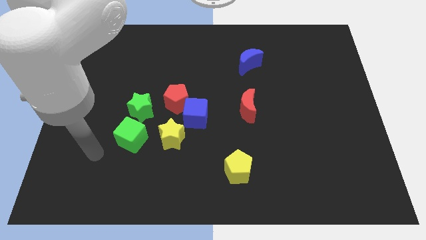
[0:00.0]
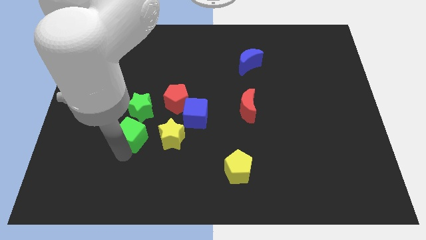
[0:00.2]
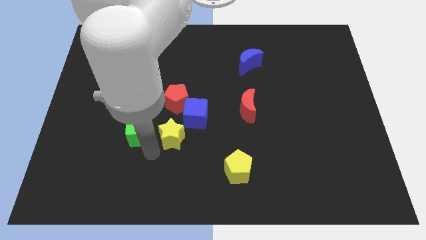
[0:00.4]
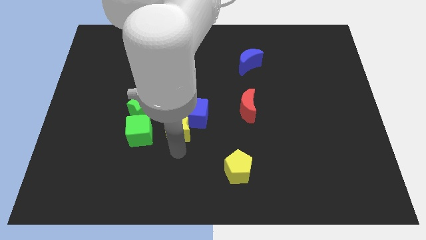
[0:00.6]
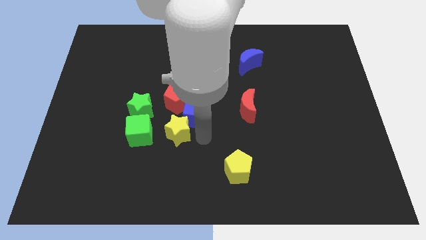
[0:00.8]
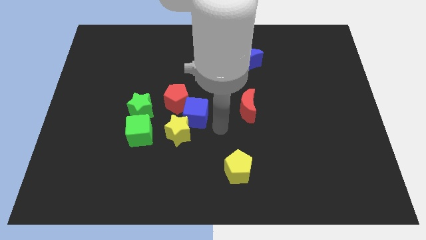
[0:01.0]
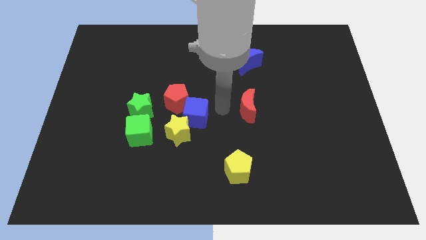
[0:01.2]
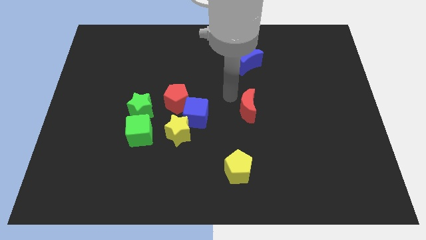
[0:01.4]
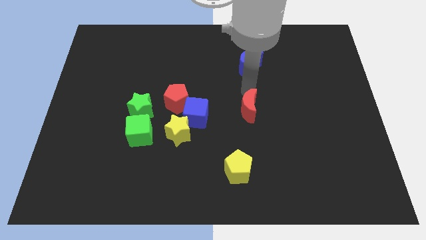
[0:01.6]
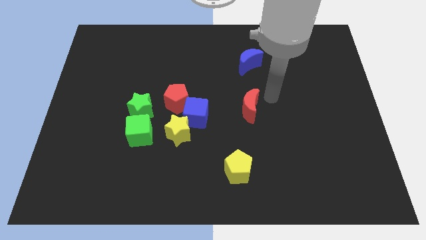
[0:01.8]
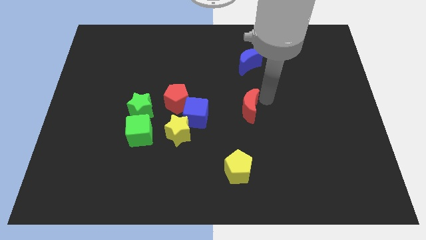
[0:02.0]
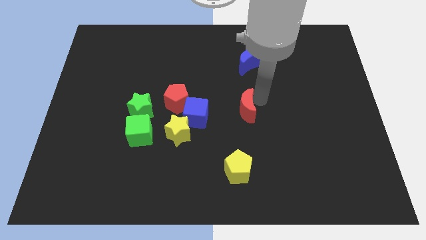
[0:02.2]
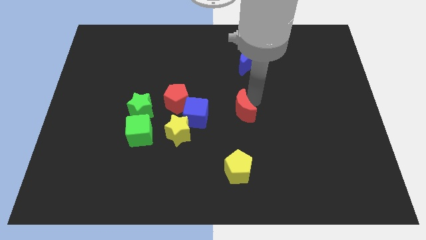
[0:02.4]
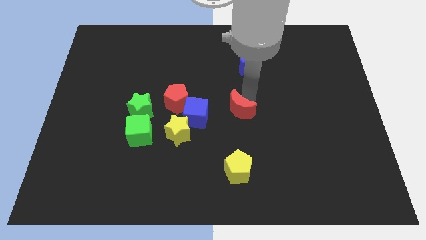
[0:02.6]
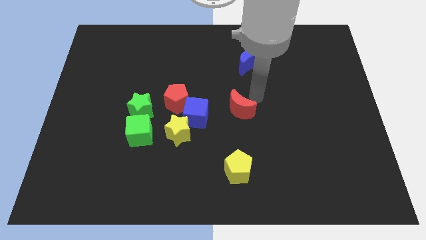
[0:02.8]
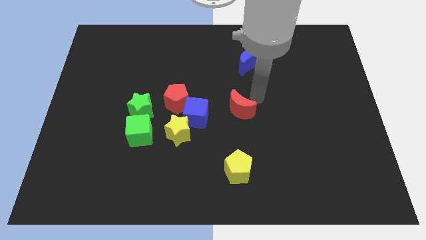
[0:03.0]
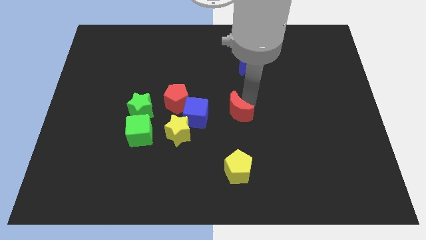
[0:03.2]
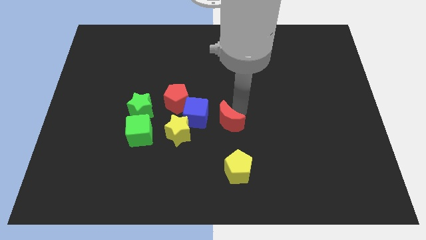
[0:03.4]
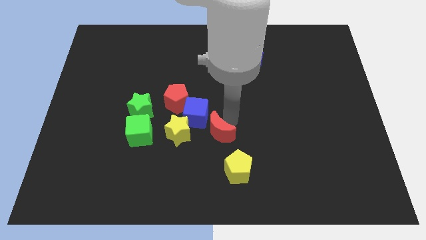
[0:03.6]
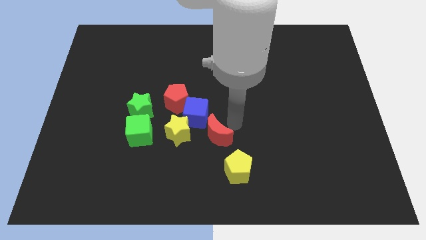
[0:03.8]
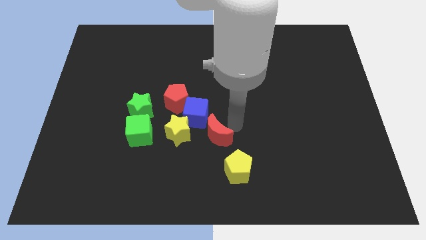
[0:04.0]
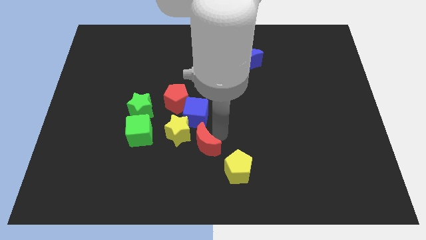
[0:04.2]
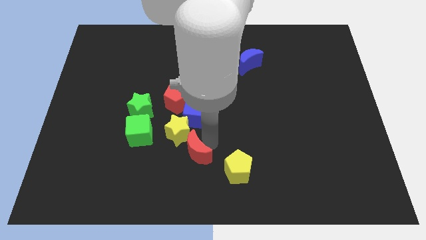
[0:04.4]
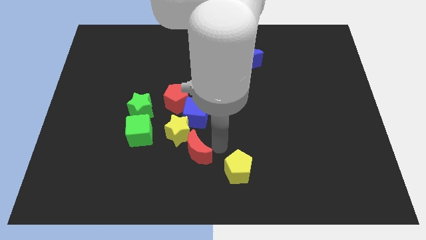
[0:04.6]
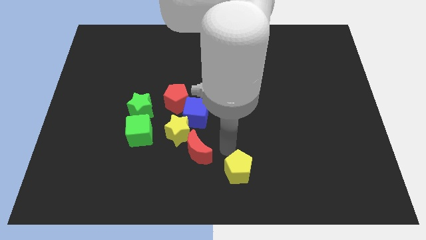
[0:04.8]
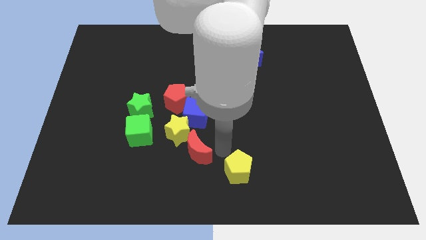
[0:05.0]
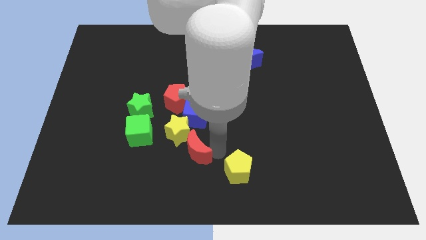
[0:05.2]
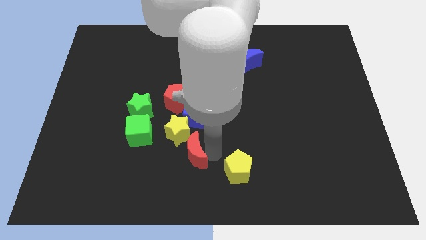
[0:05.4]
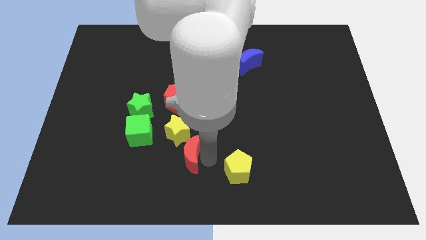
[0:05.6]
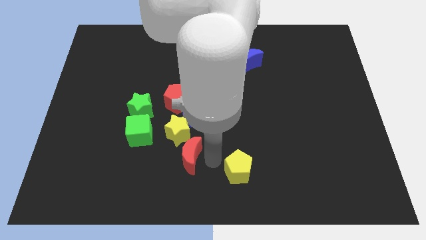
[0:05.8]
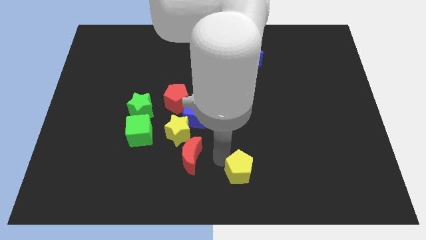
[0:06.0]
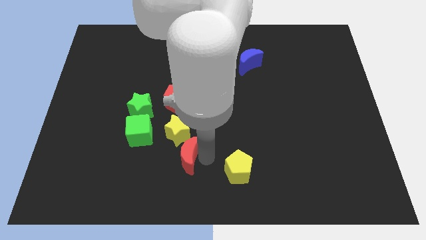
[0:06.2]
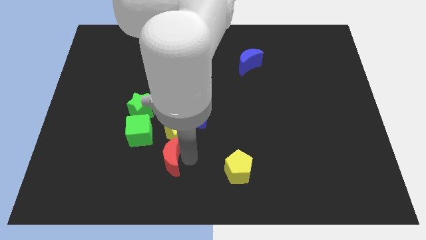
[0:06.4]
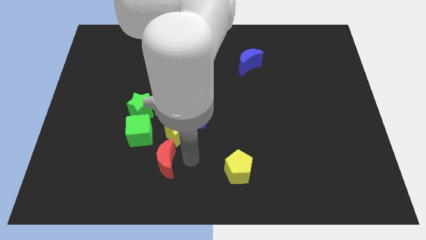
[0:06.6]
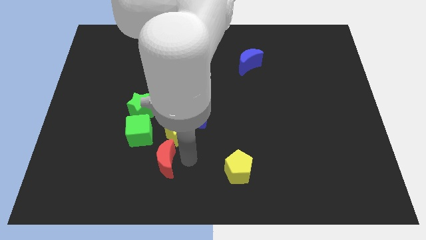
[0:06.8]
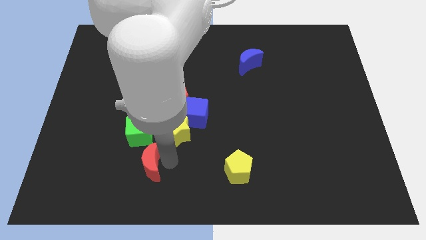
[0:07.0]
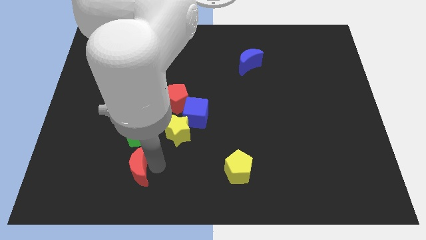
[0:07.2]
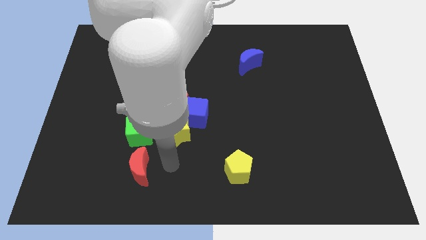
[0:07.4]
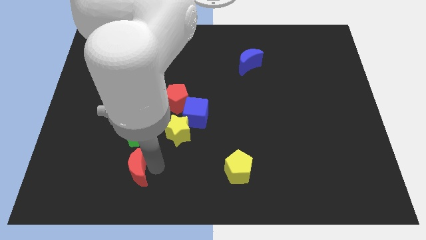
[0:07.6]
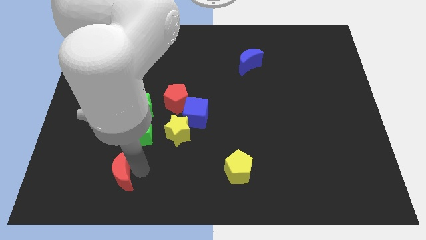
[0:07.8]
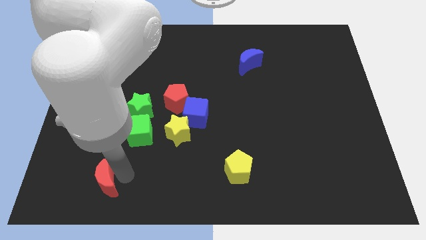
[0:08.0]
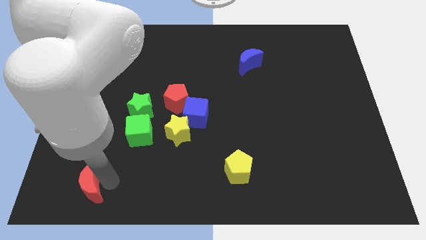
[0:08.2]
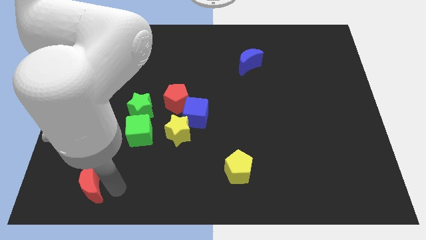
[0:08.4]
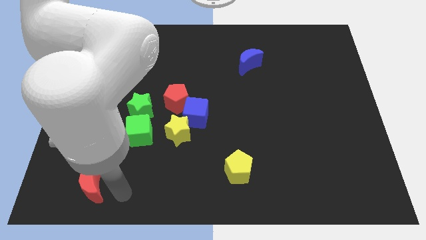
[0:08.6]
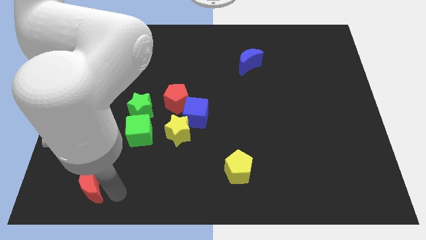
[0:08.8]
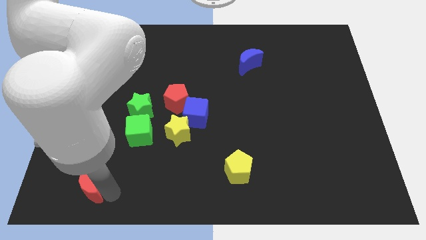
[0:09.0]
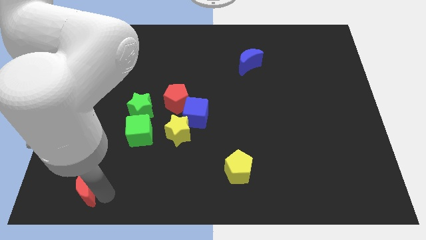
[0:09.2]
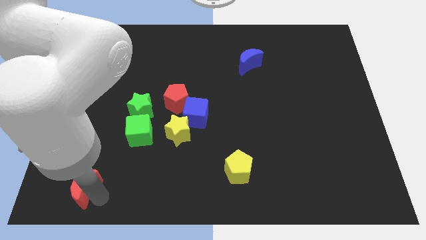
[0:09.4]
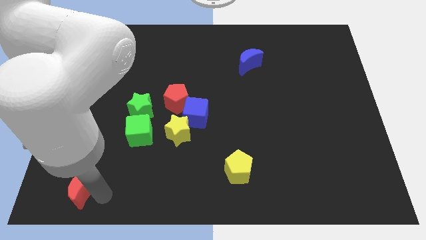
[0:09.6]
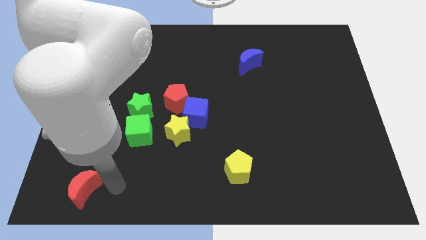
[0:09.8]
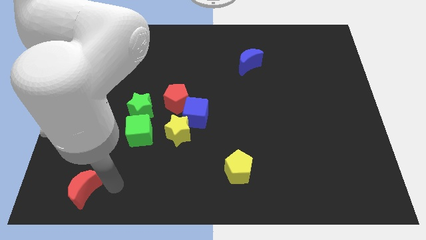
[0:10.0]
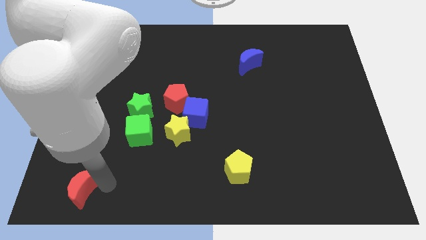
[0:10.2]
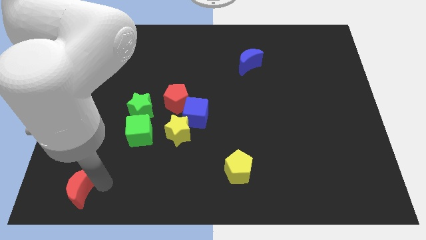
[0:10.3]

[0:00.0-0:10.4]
move the red moon to the bottom left

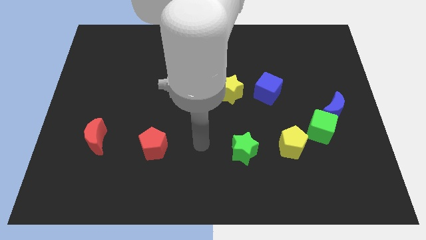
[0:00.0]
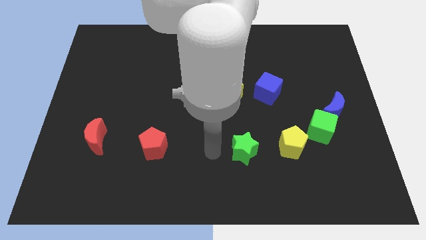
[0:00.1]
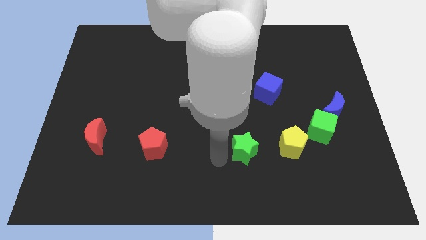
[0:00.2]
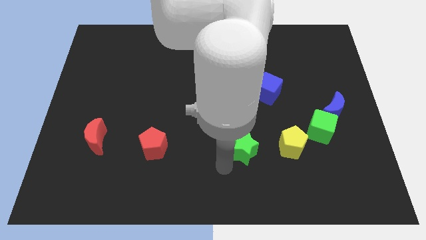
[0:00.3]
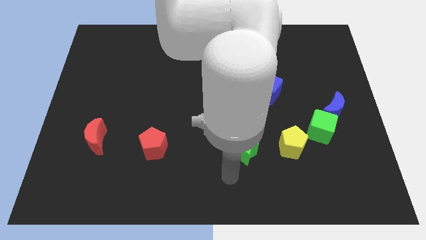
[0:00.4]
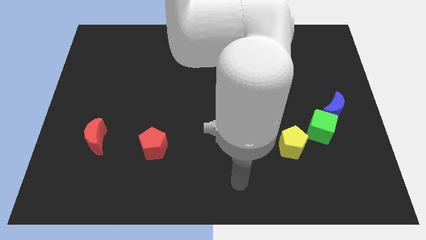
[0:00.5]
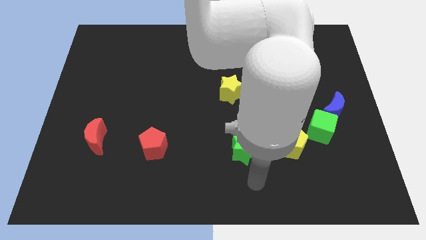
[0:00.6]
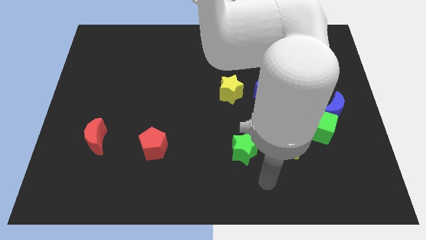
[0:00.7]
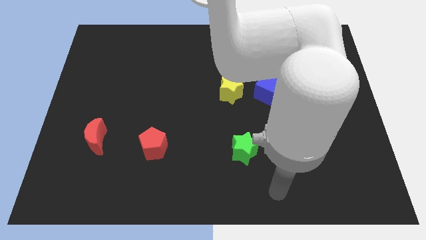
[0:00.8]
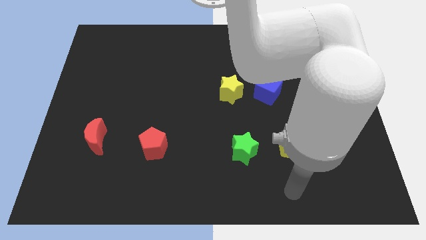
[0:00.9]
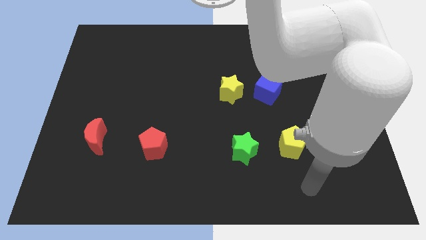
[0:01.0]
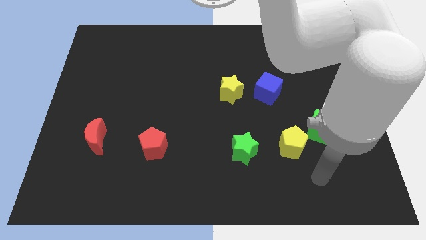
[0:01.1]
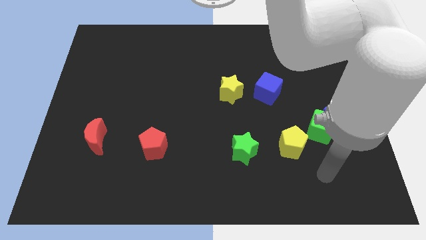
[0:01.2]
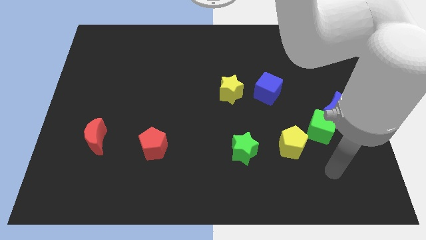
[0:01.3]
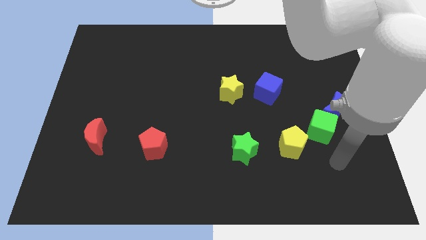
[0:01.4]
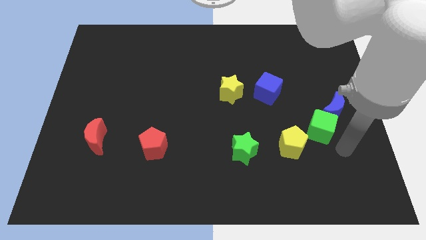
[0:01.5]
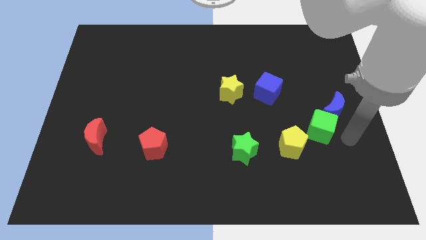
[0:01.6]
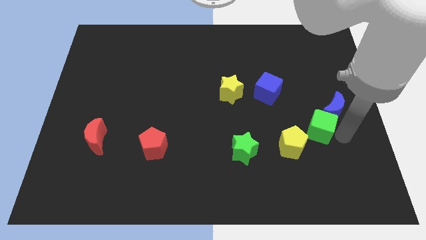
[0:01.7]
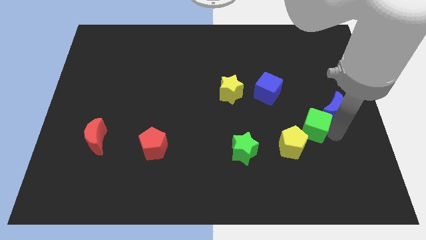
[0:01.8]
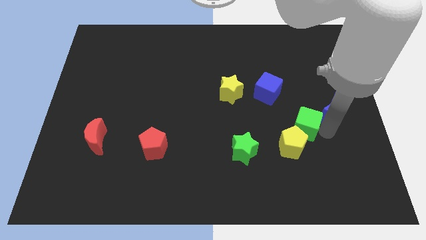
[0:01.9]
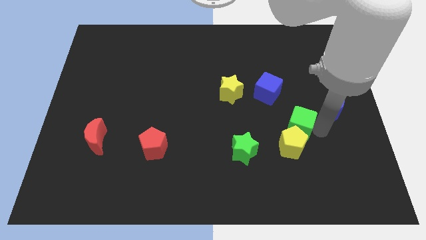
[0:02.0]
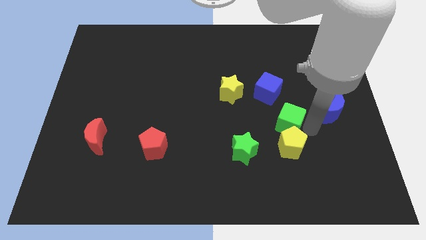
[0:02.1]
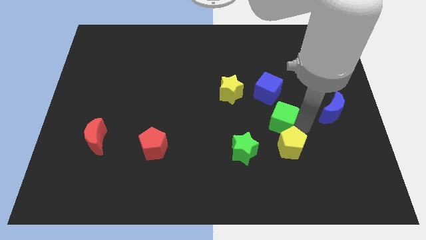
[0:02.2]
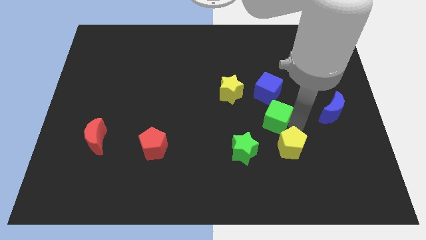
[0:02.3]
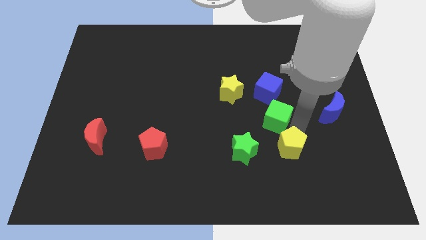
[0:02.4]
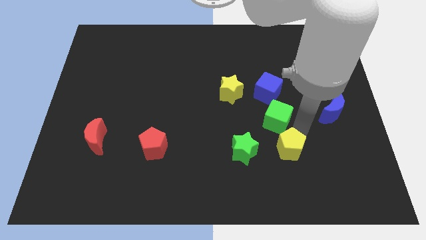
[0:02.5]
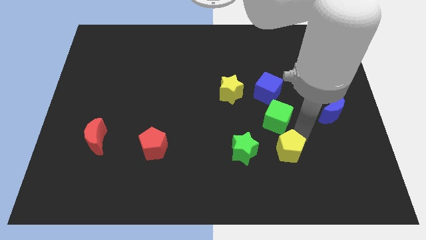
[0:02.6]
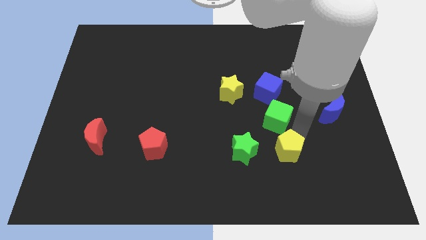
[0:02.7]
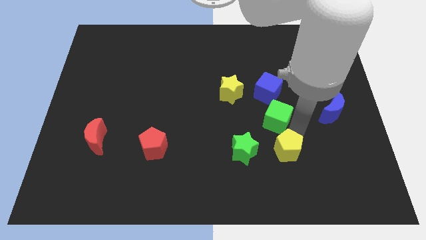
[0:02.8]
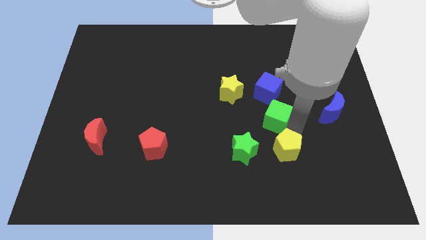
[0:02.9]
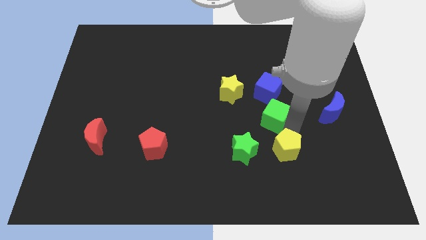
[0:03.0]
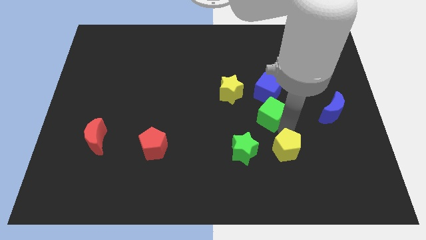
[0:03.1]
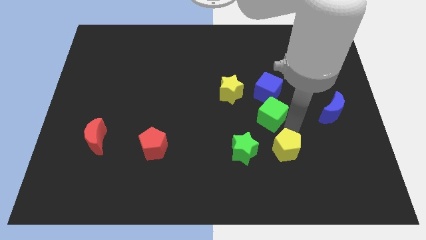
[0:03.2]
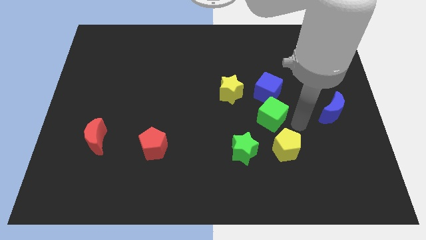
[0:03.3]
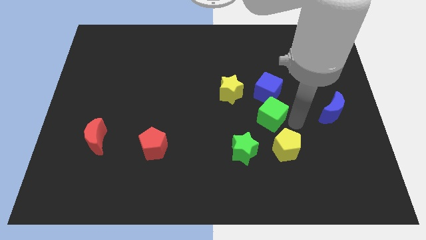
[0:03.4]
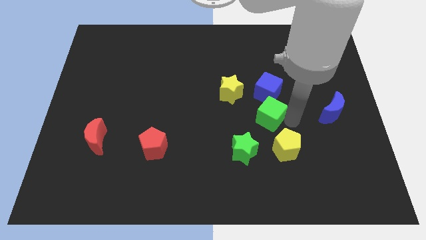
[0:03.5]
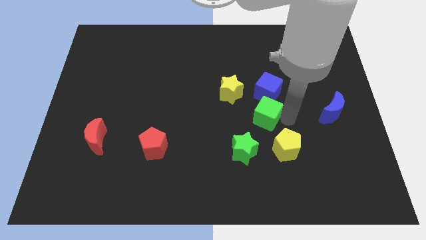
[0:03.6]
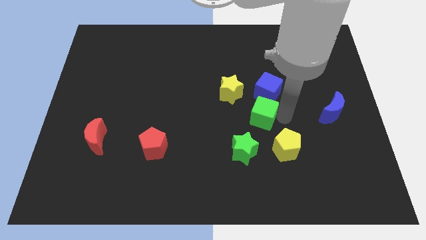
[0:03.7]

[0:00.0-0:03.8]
put the green cube to the center
